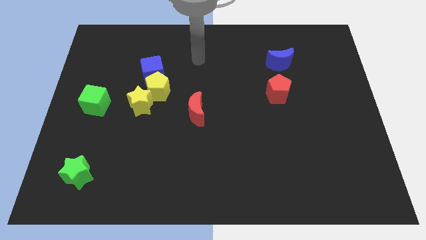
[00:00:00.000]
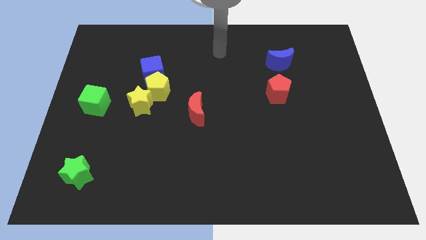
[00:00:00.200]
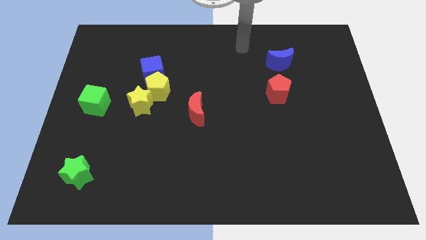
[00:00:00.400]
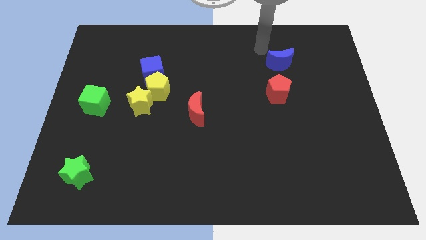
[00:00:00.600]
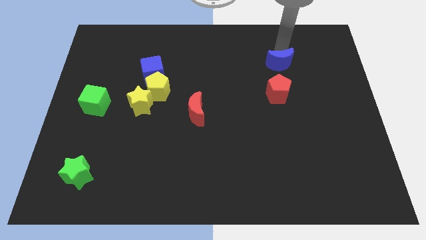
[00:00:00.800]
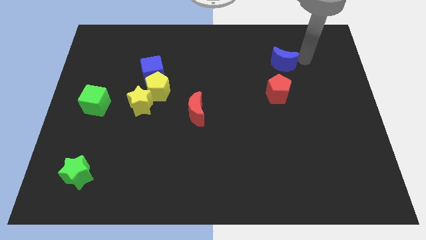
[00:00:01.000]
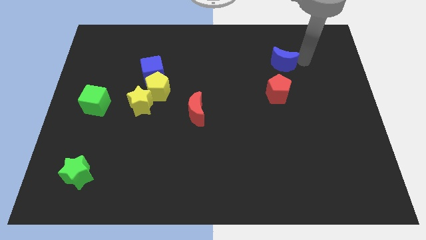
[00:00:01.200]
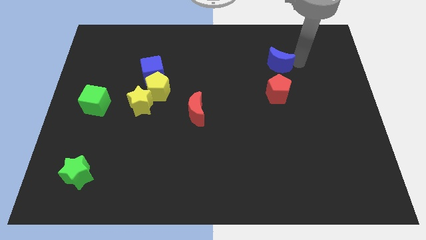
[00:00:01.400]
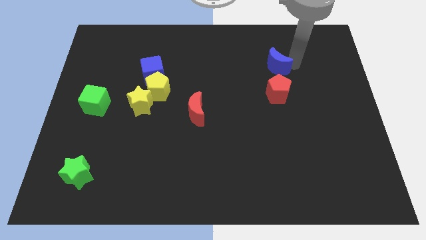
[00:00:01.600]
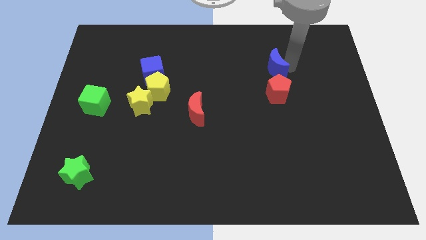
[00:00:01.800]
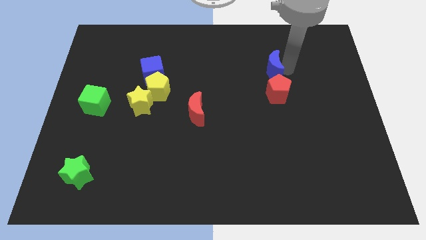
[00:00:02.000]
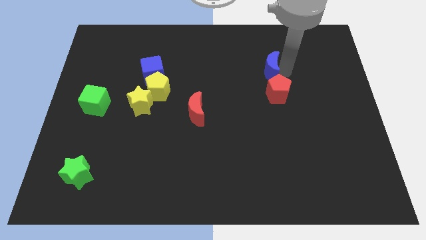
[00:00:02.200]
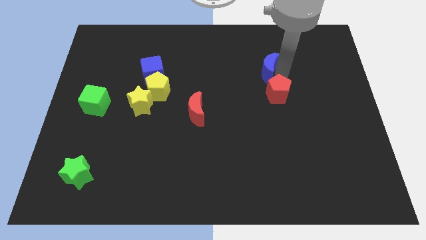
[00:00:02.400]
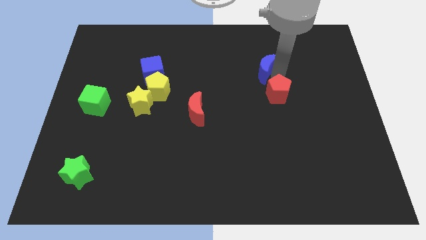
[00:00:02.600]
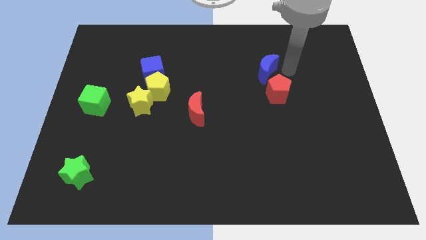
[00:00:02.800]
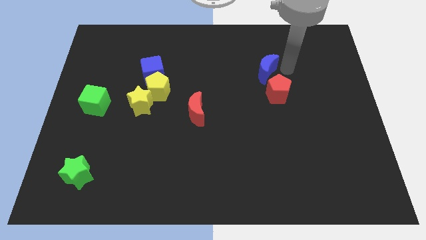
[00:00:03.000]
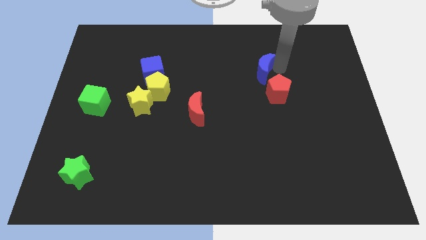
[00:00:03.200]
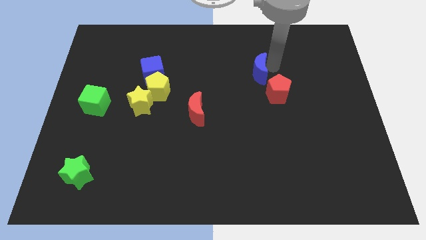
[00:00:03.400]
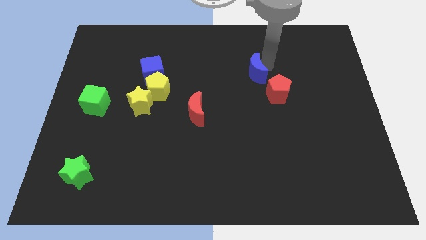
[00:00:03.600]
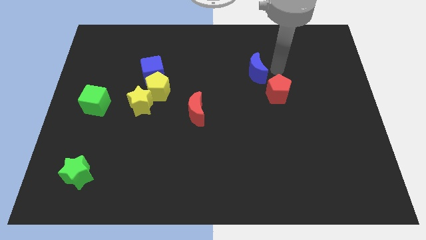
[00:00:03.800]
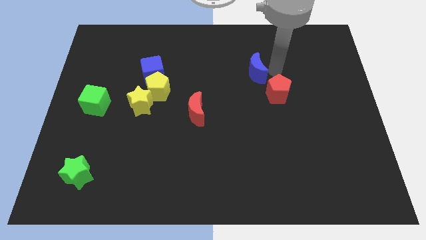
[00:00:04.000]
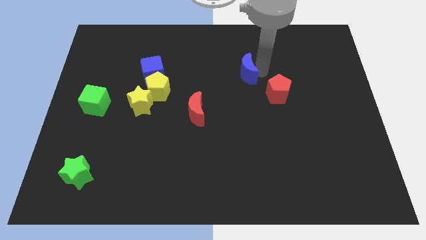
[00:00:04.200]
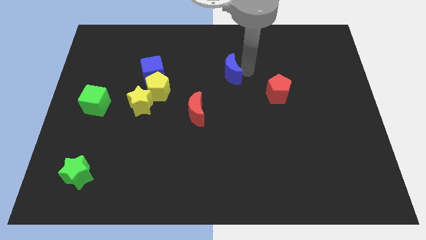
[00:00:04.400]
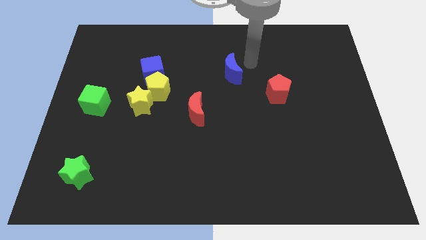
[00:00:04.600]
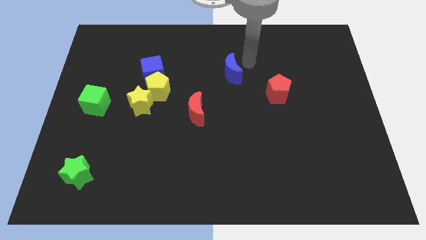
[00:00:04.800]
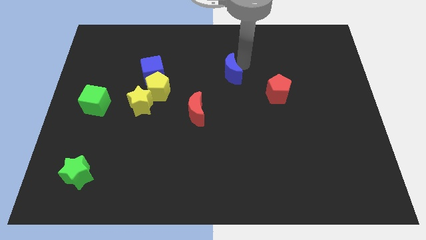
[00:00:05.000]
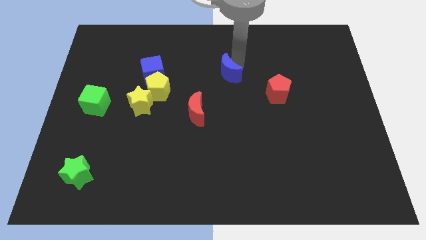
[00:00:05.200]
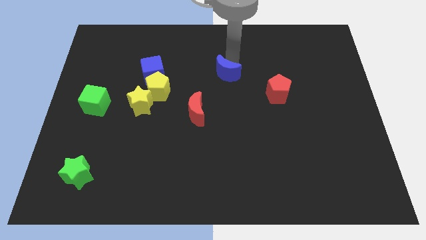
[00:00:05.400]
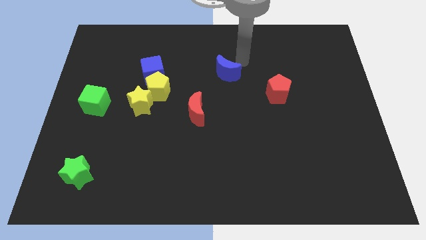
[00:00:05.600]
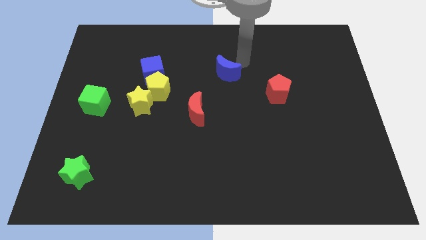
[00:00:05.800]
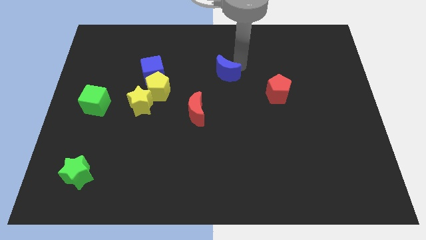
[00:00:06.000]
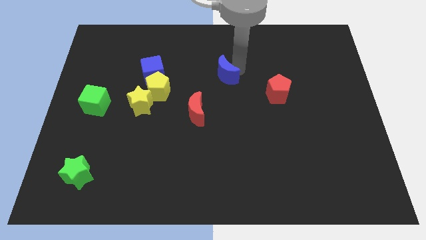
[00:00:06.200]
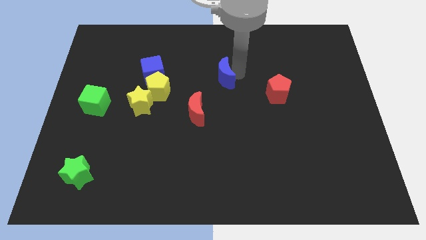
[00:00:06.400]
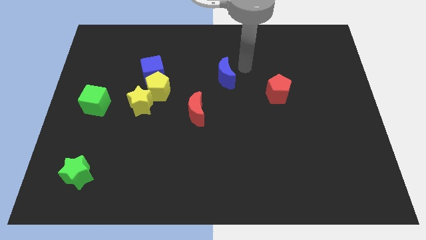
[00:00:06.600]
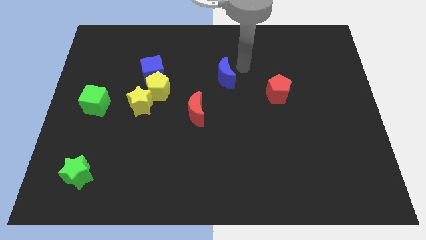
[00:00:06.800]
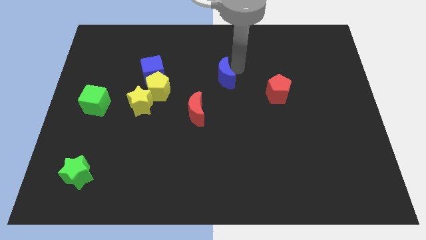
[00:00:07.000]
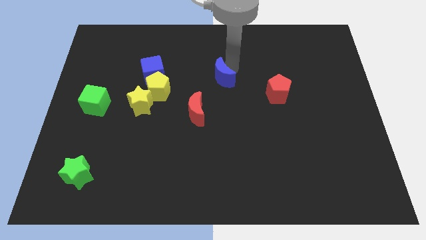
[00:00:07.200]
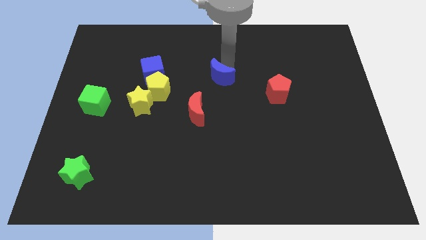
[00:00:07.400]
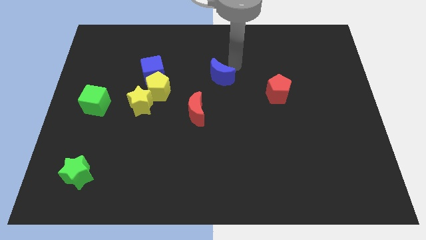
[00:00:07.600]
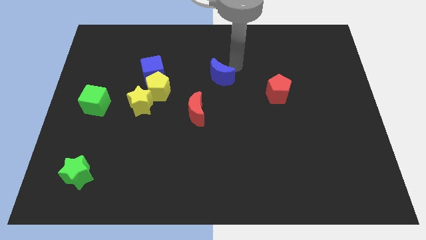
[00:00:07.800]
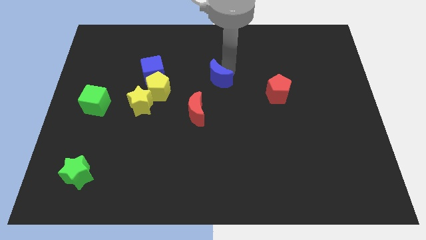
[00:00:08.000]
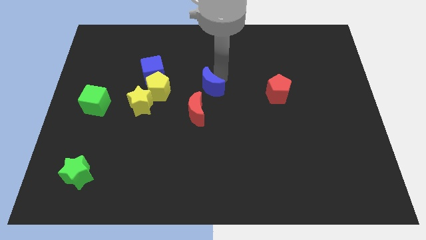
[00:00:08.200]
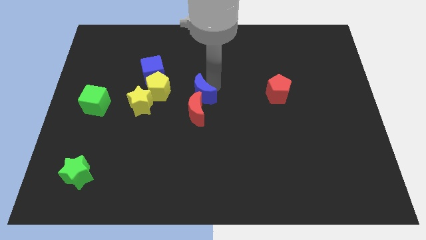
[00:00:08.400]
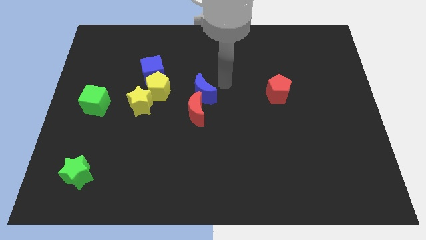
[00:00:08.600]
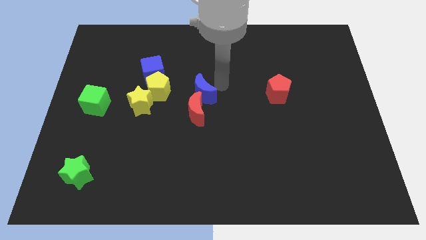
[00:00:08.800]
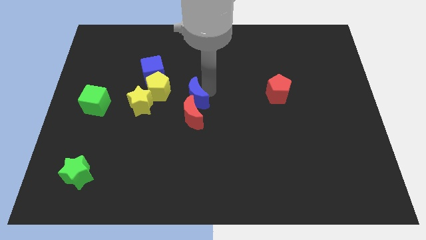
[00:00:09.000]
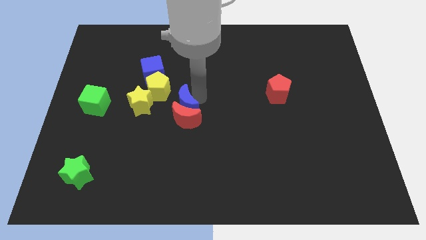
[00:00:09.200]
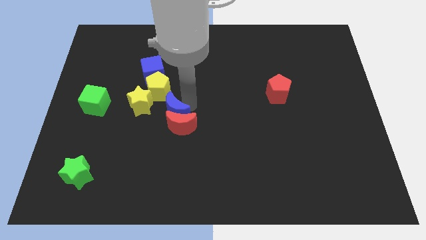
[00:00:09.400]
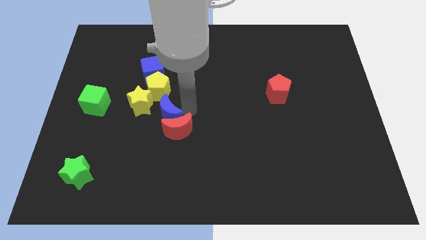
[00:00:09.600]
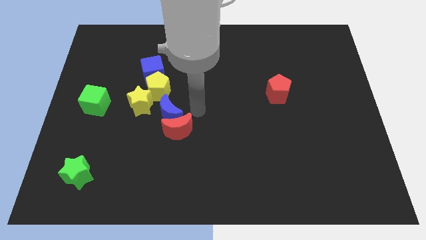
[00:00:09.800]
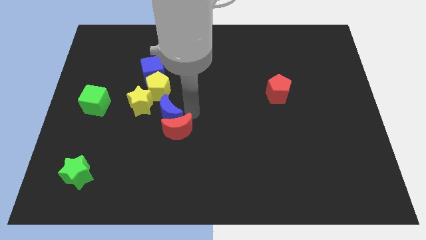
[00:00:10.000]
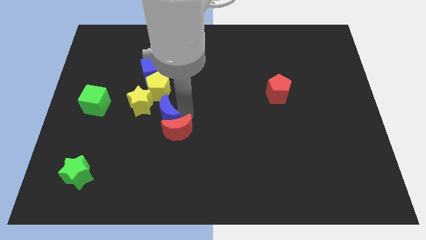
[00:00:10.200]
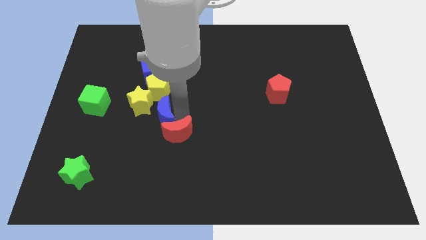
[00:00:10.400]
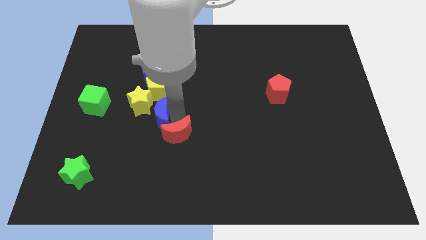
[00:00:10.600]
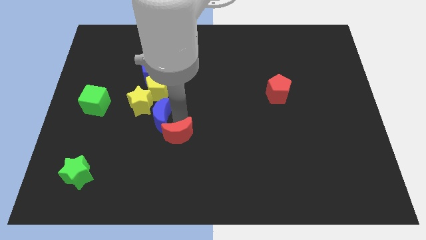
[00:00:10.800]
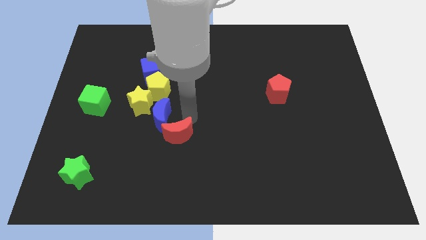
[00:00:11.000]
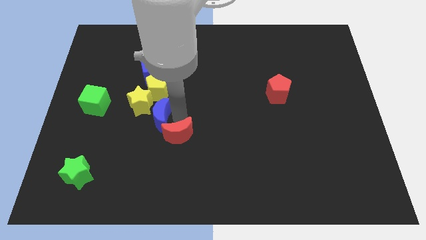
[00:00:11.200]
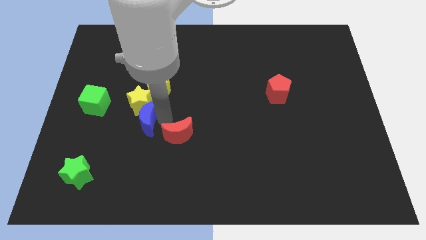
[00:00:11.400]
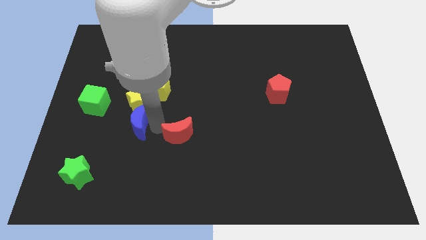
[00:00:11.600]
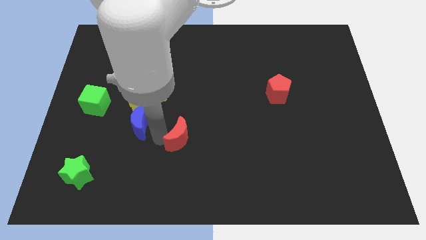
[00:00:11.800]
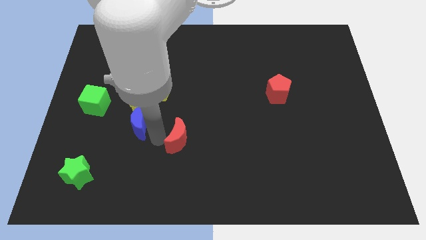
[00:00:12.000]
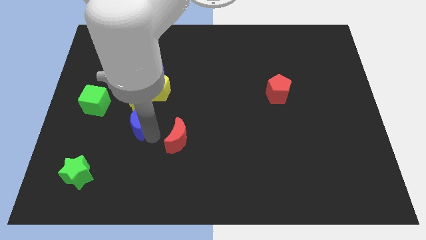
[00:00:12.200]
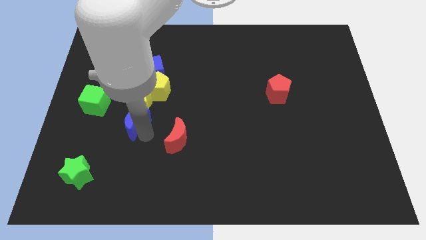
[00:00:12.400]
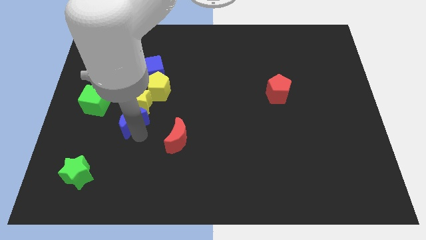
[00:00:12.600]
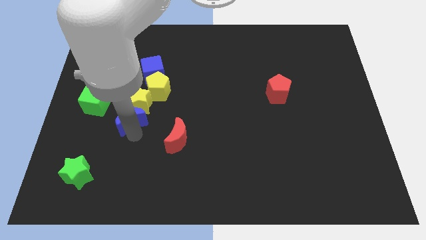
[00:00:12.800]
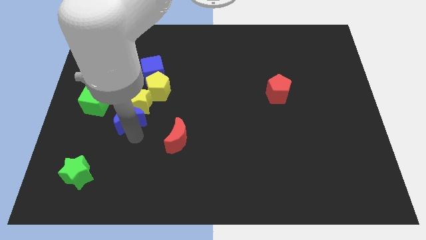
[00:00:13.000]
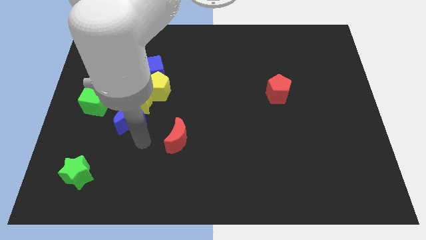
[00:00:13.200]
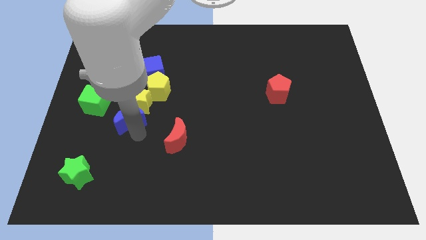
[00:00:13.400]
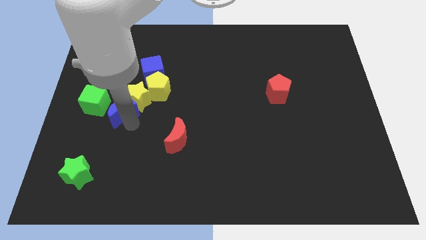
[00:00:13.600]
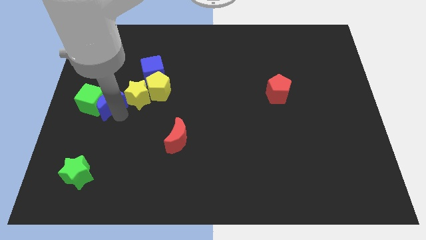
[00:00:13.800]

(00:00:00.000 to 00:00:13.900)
push the blue moon to the left side of the yellow pentagon
